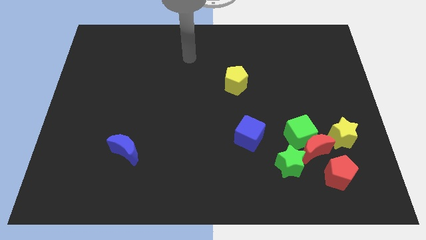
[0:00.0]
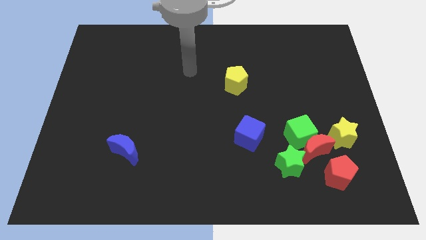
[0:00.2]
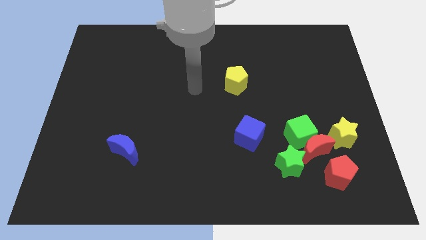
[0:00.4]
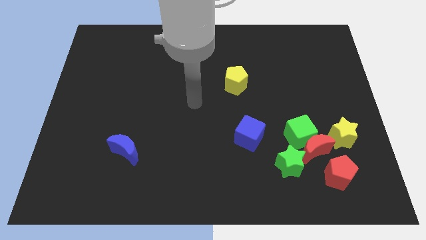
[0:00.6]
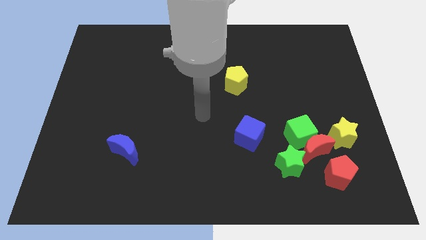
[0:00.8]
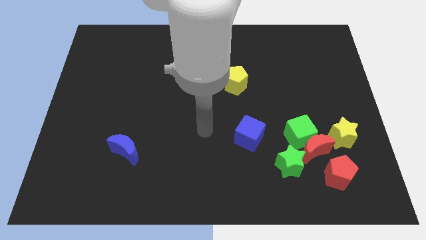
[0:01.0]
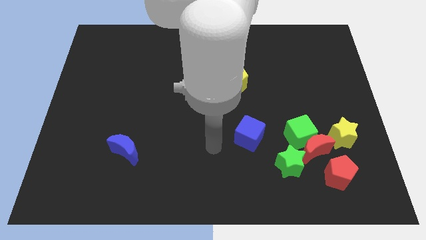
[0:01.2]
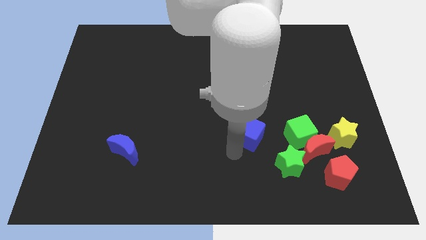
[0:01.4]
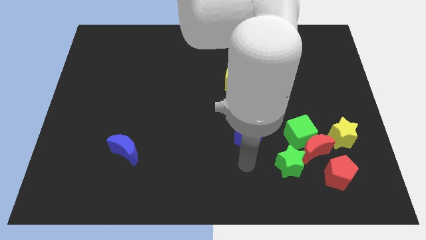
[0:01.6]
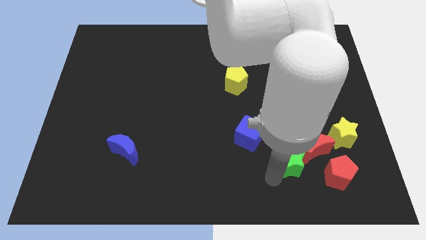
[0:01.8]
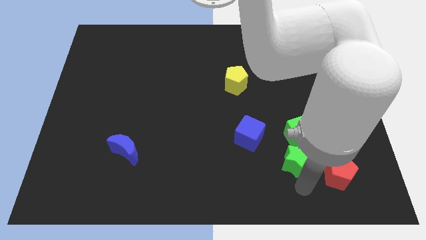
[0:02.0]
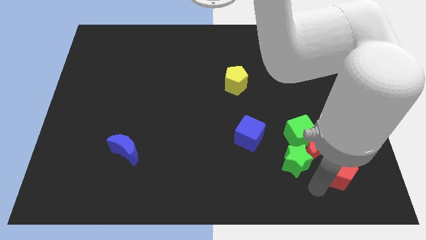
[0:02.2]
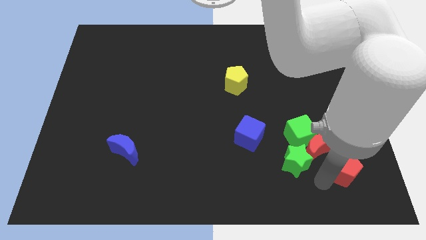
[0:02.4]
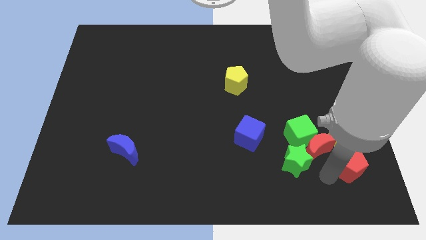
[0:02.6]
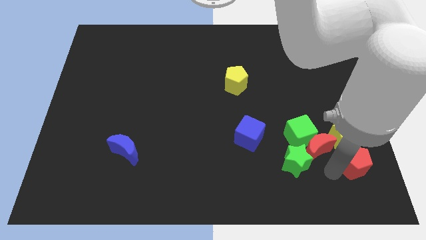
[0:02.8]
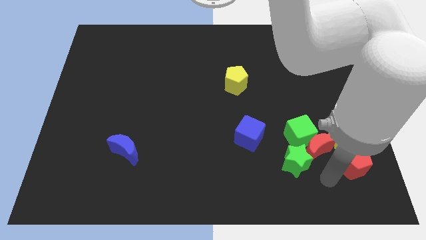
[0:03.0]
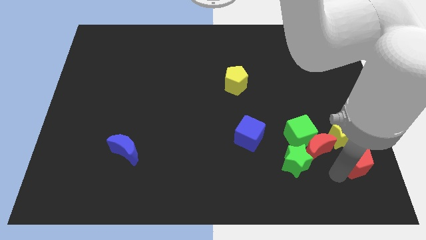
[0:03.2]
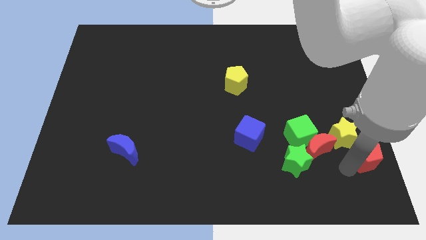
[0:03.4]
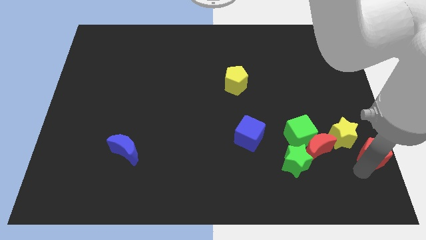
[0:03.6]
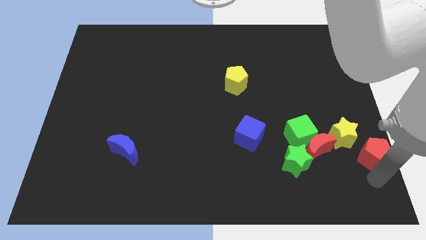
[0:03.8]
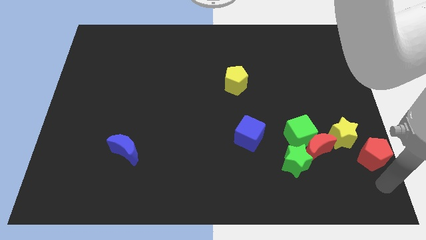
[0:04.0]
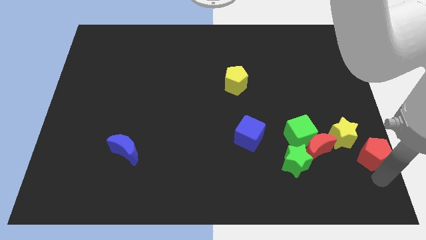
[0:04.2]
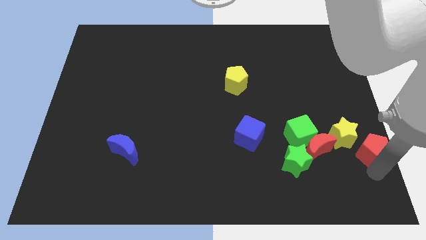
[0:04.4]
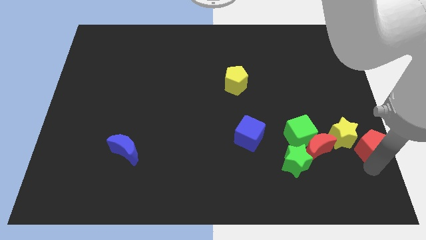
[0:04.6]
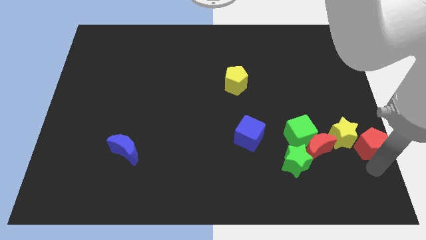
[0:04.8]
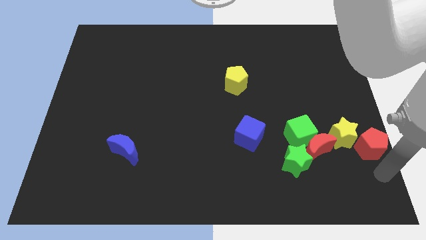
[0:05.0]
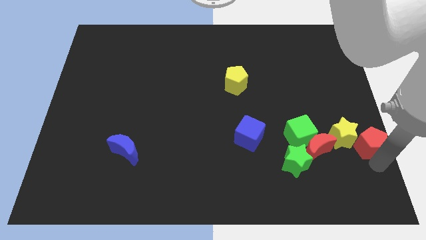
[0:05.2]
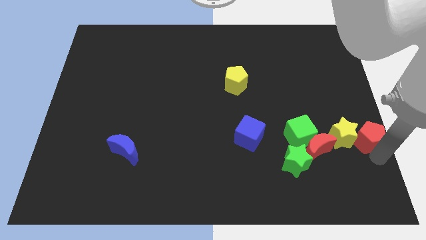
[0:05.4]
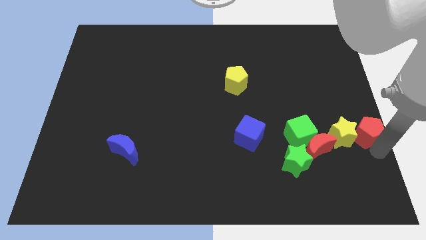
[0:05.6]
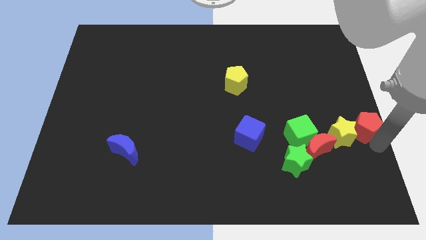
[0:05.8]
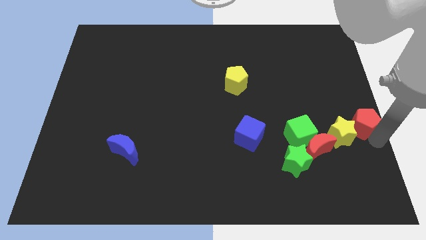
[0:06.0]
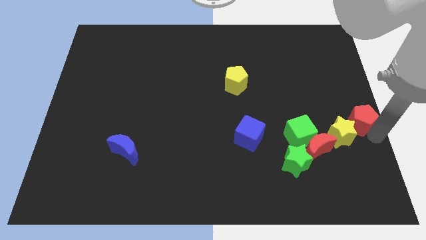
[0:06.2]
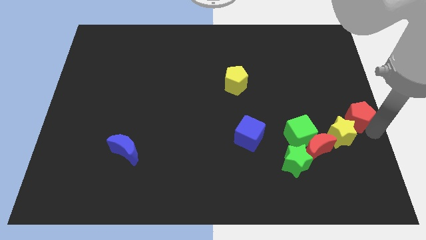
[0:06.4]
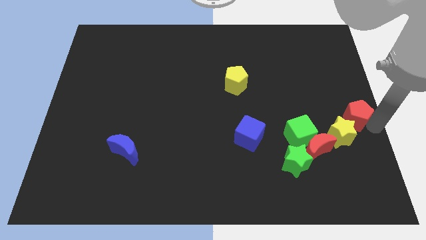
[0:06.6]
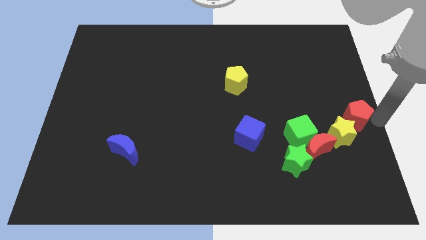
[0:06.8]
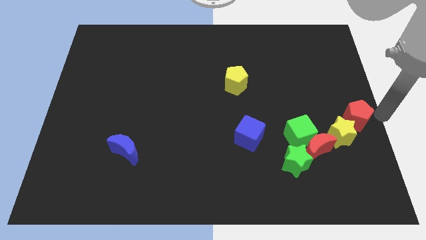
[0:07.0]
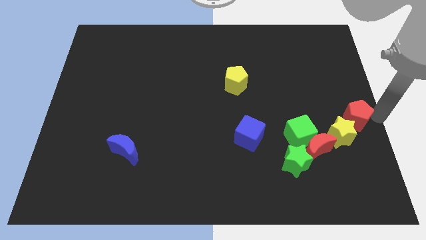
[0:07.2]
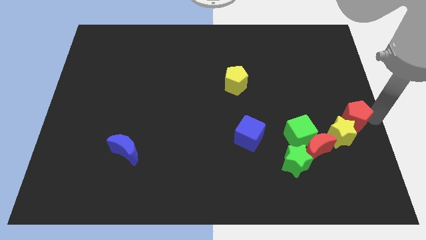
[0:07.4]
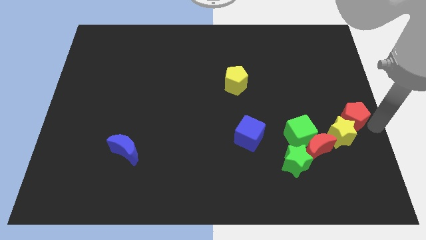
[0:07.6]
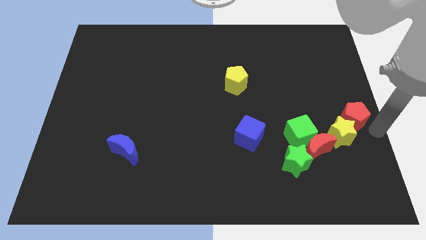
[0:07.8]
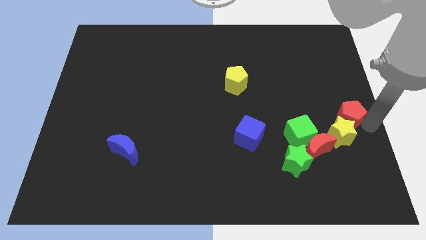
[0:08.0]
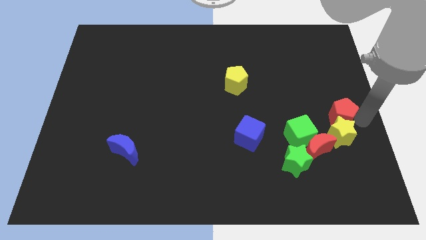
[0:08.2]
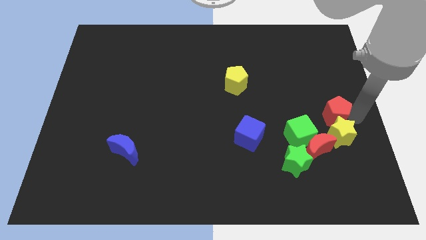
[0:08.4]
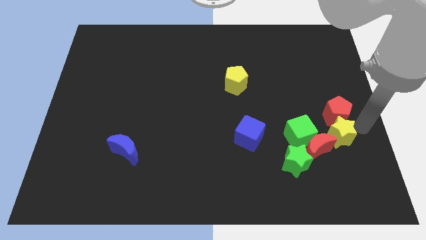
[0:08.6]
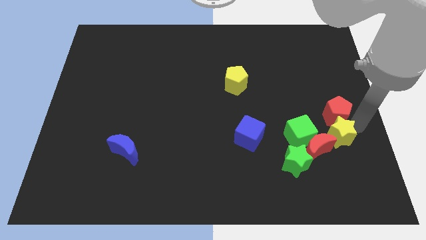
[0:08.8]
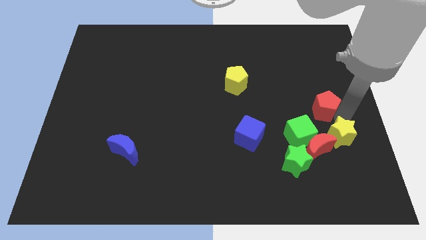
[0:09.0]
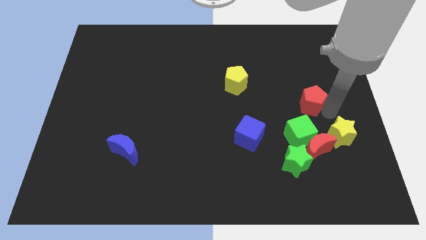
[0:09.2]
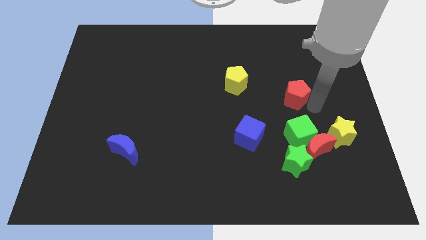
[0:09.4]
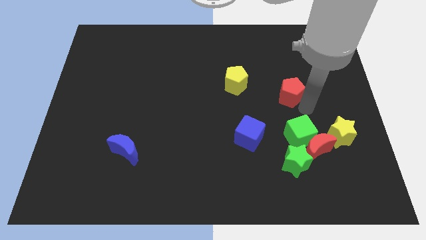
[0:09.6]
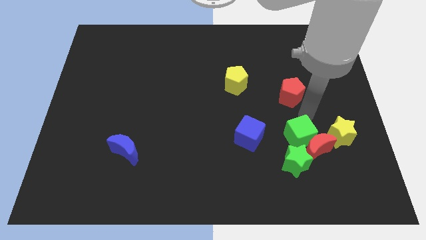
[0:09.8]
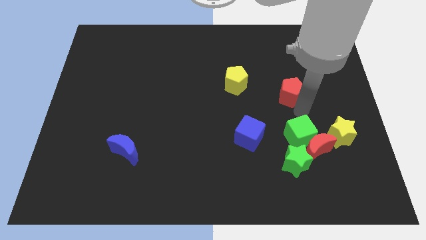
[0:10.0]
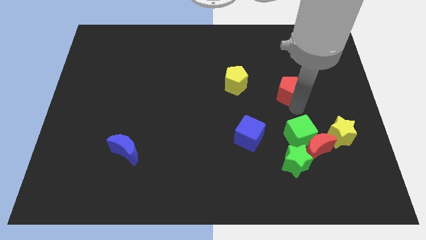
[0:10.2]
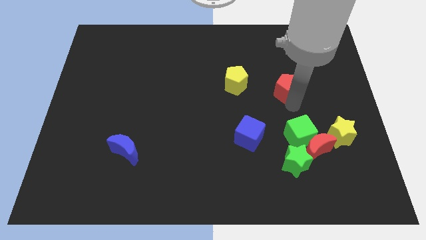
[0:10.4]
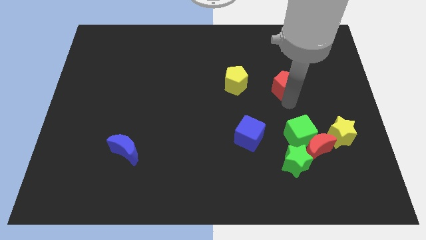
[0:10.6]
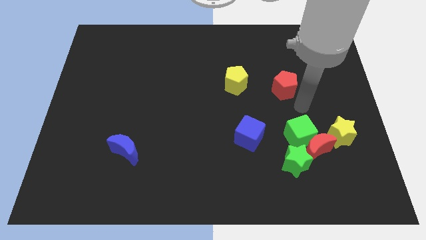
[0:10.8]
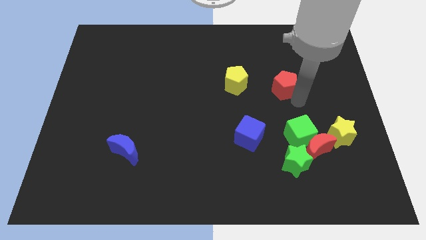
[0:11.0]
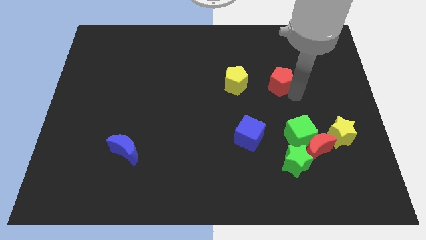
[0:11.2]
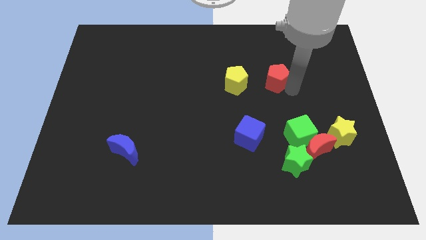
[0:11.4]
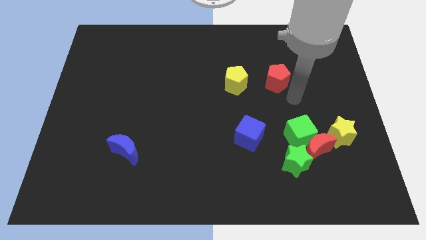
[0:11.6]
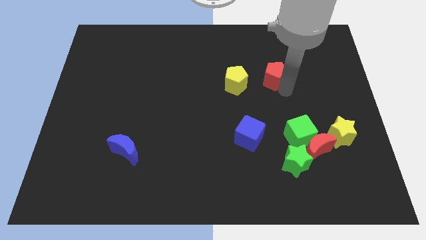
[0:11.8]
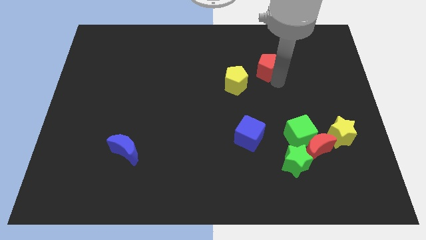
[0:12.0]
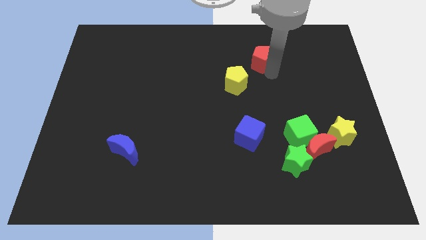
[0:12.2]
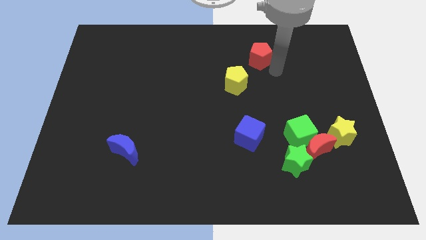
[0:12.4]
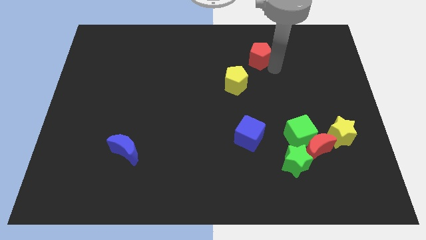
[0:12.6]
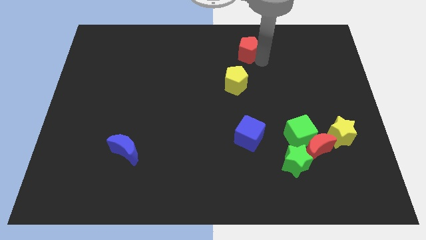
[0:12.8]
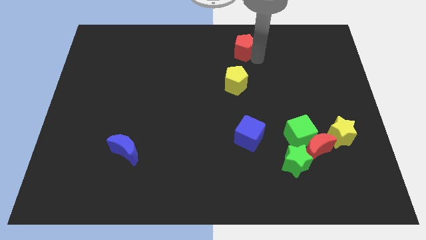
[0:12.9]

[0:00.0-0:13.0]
move the red pentagon to the top side

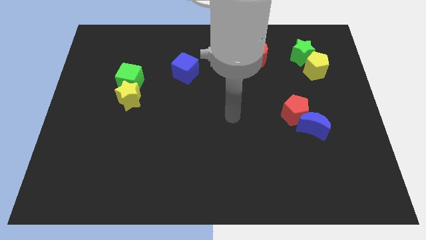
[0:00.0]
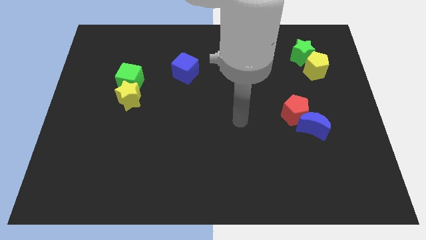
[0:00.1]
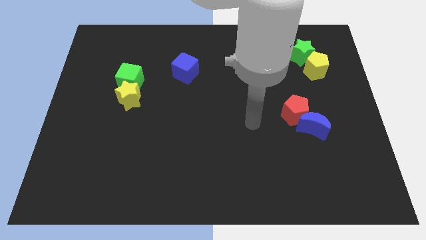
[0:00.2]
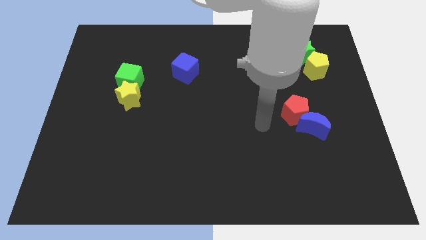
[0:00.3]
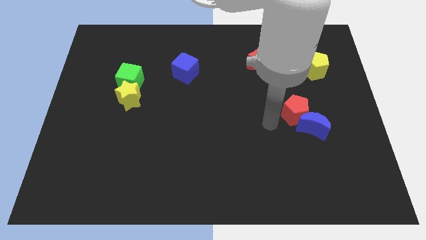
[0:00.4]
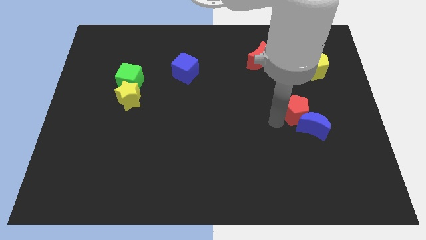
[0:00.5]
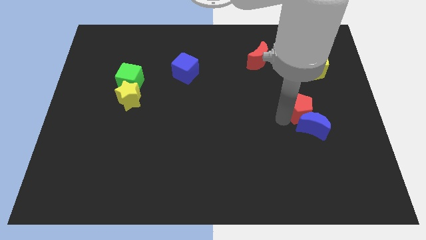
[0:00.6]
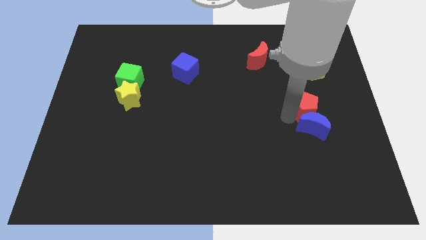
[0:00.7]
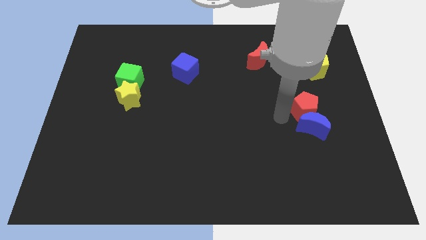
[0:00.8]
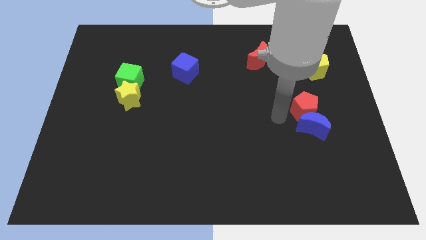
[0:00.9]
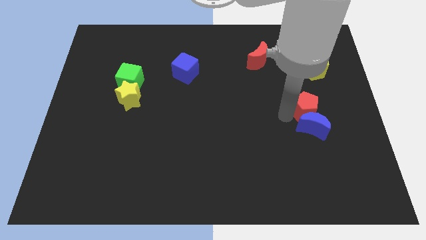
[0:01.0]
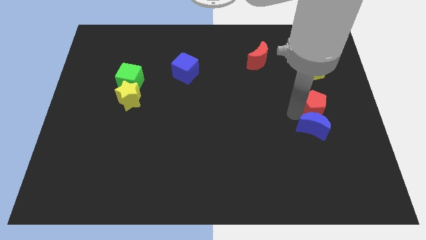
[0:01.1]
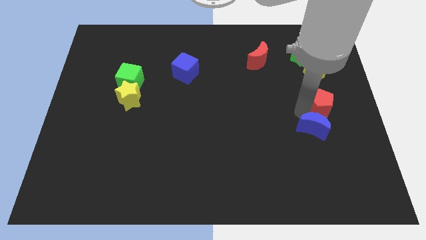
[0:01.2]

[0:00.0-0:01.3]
push the red pentagon to the right side
